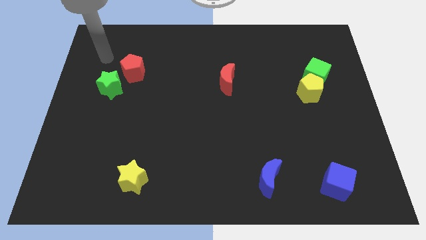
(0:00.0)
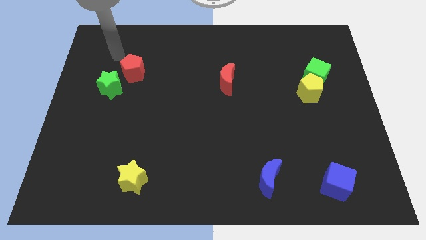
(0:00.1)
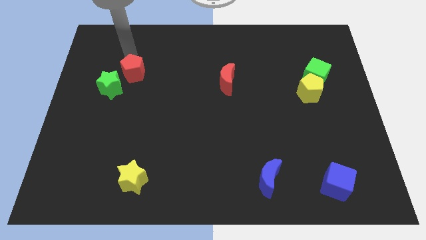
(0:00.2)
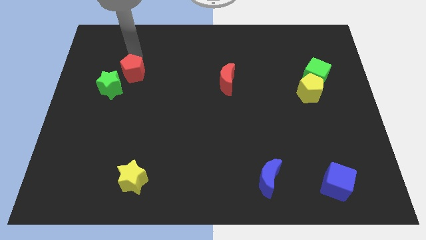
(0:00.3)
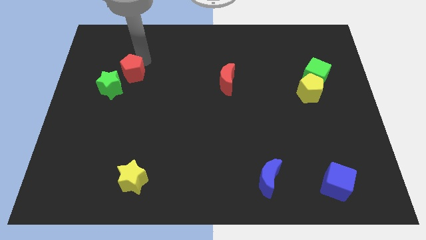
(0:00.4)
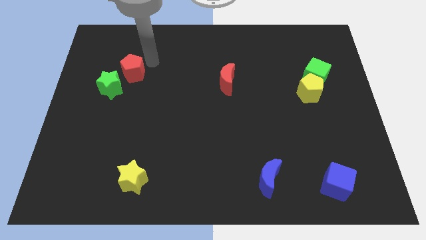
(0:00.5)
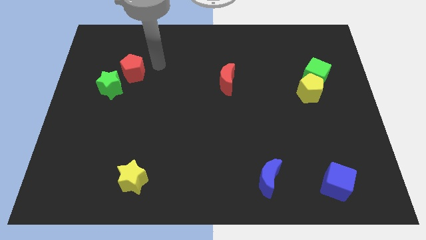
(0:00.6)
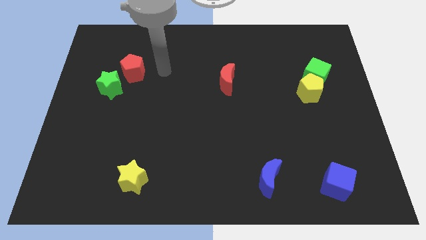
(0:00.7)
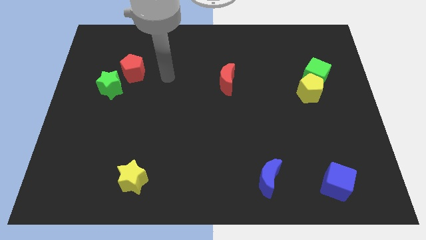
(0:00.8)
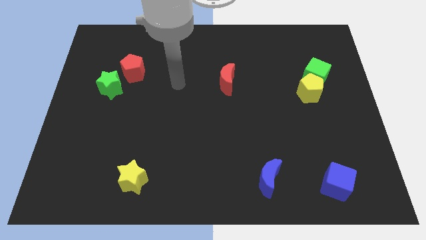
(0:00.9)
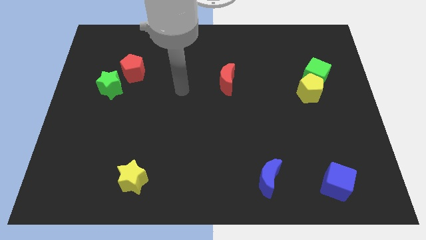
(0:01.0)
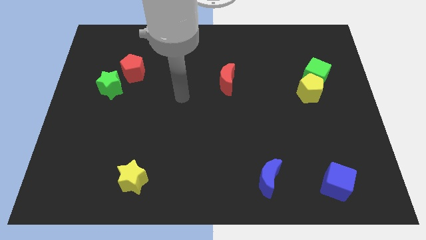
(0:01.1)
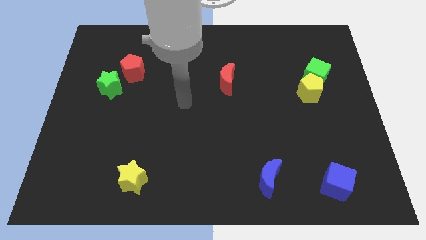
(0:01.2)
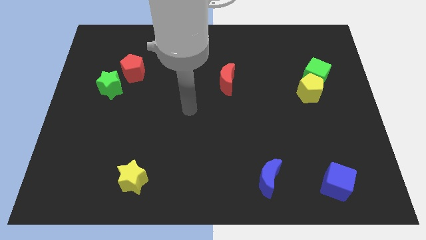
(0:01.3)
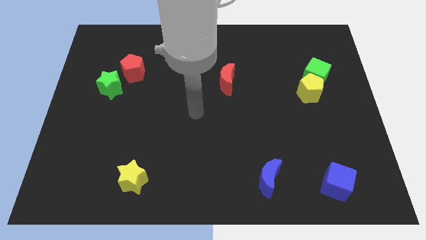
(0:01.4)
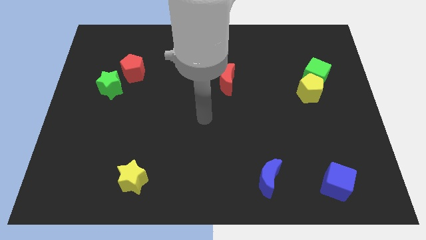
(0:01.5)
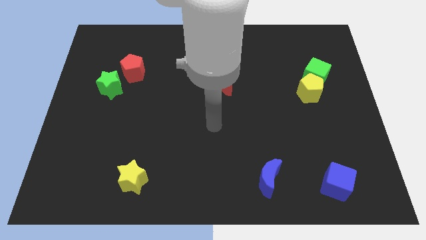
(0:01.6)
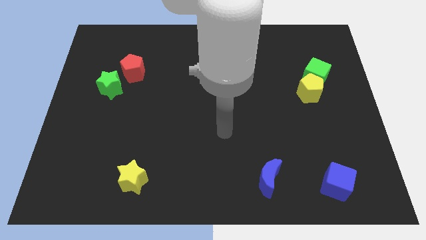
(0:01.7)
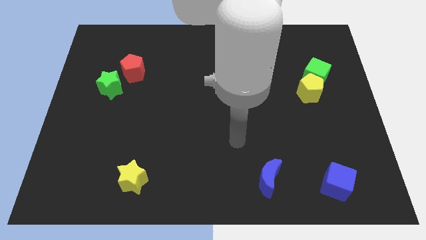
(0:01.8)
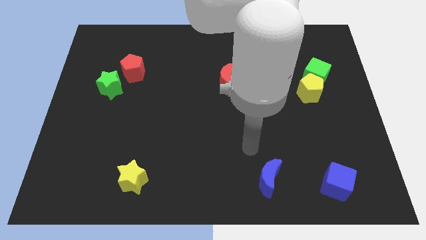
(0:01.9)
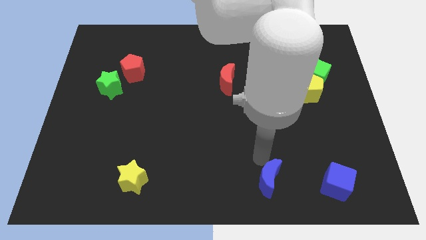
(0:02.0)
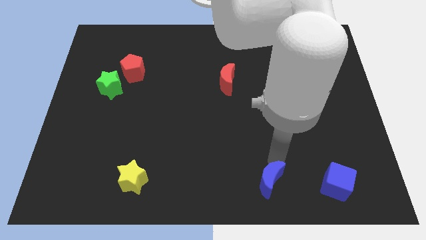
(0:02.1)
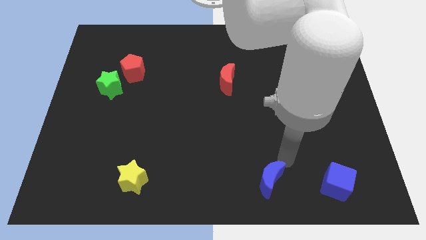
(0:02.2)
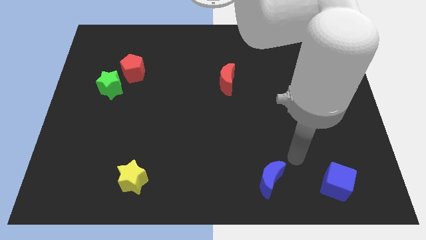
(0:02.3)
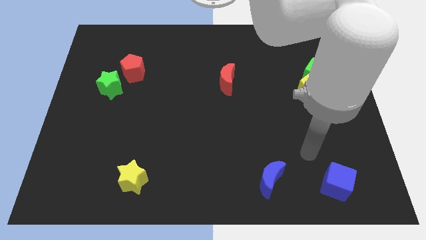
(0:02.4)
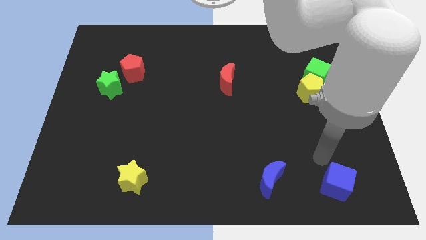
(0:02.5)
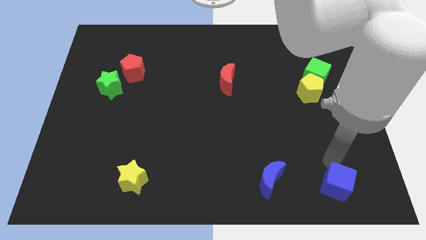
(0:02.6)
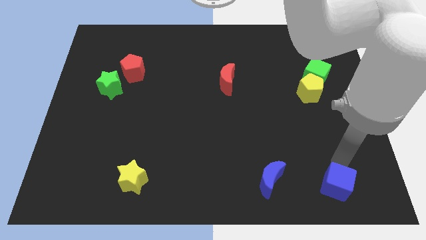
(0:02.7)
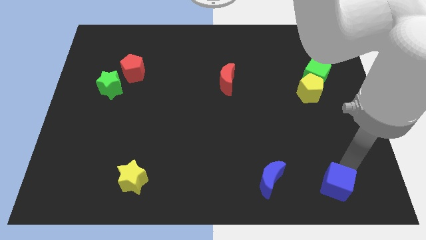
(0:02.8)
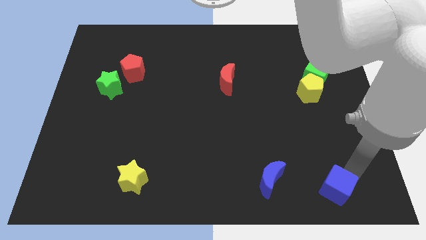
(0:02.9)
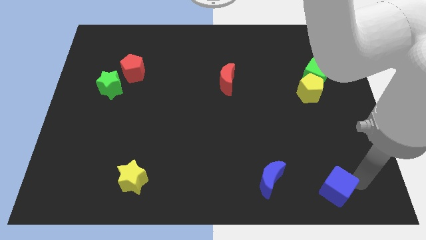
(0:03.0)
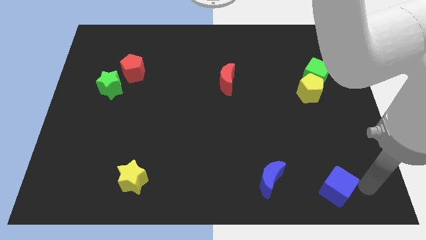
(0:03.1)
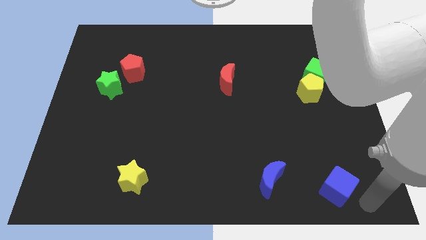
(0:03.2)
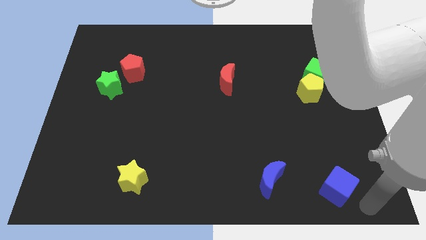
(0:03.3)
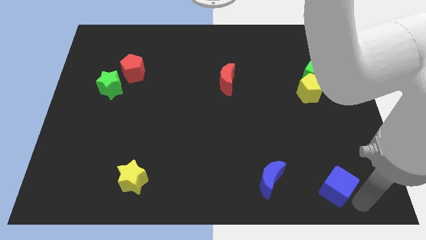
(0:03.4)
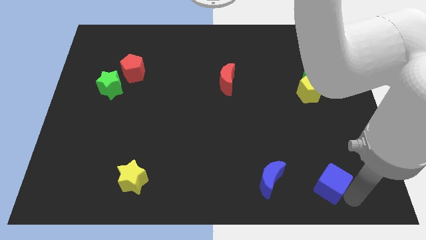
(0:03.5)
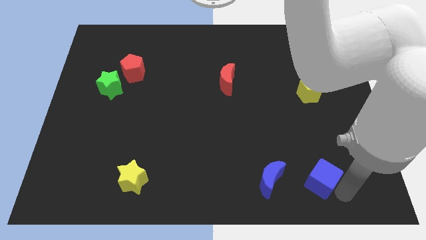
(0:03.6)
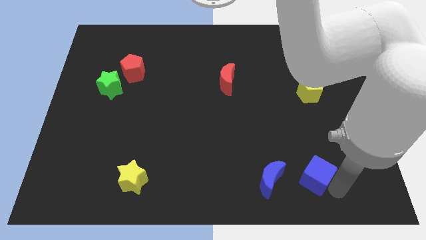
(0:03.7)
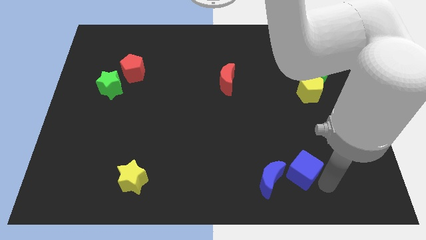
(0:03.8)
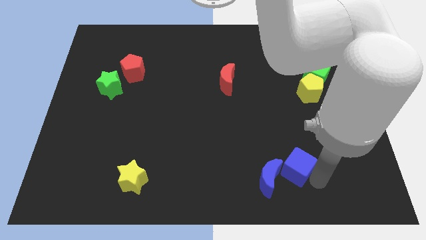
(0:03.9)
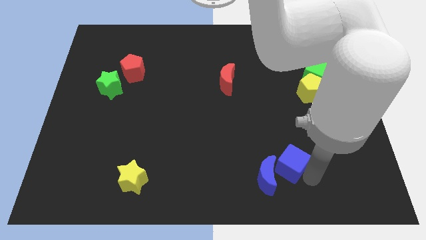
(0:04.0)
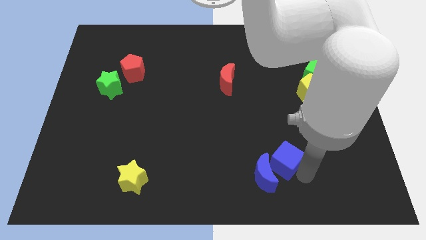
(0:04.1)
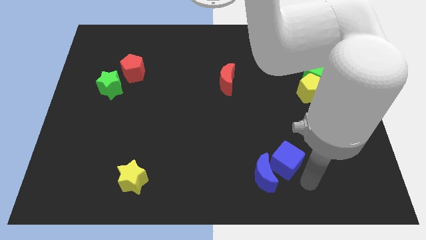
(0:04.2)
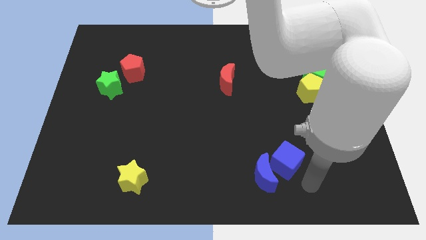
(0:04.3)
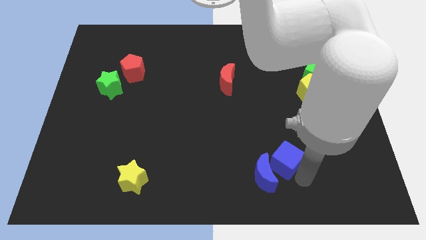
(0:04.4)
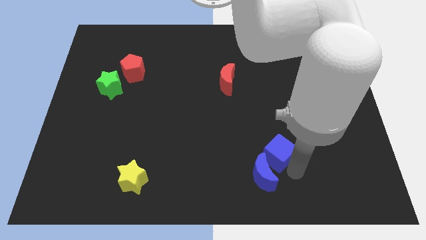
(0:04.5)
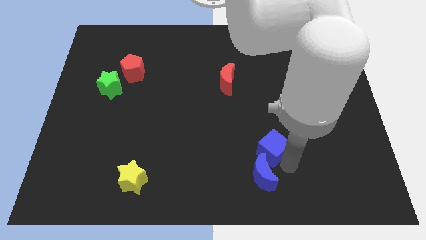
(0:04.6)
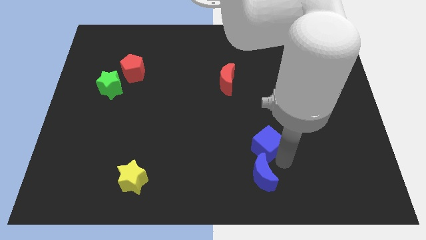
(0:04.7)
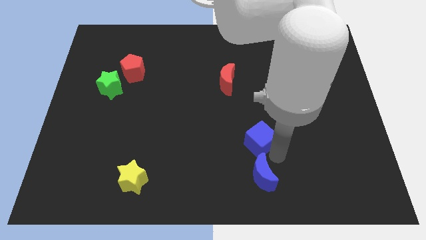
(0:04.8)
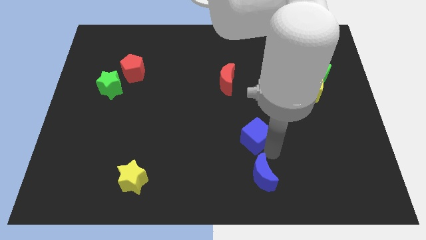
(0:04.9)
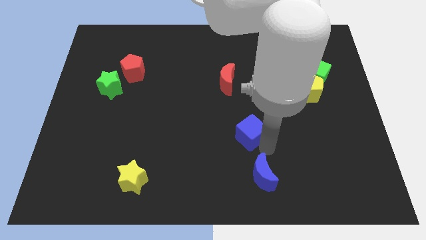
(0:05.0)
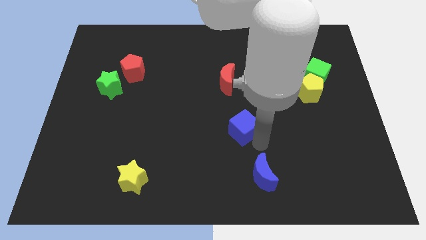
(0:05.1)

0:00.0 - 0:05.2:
put the blue cube to the center

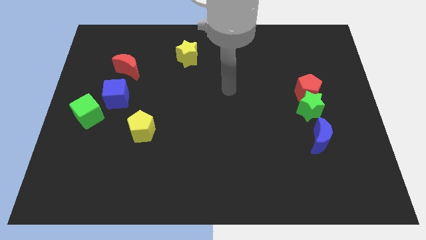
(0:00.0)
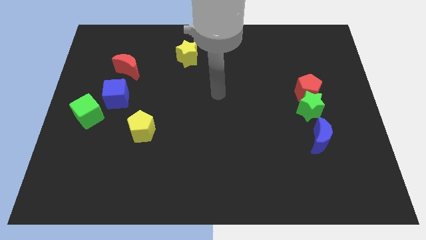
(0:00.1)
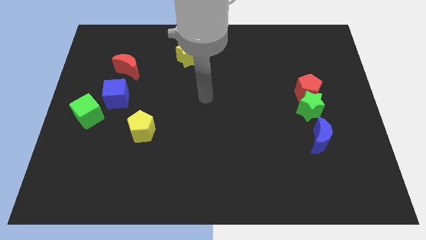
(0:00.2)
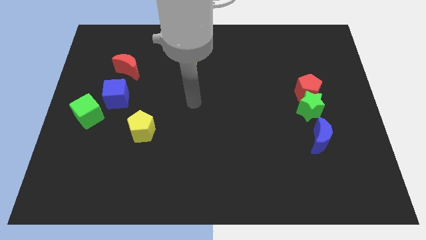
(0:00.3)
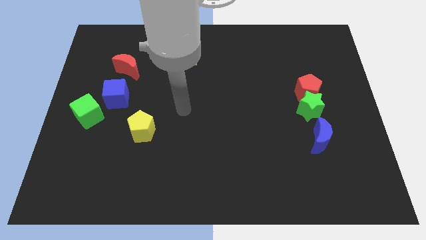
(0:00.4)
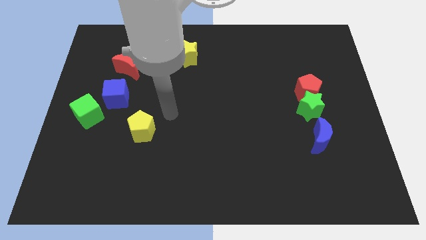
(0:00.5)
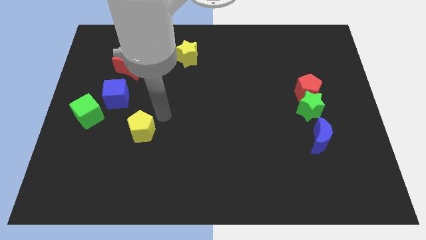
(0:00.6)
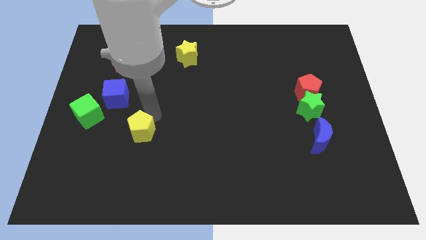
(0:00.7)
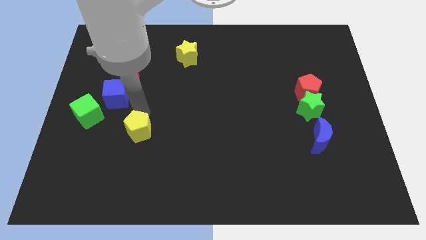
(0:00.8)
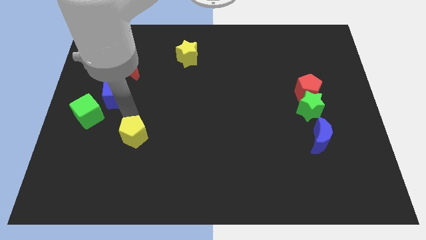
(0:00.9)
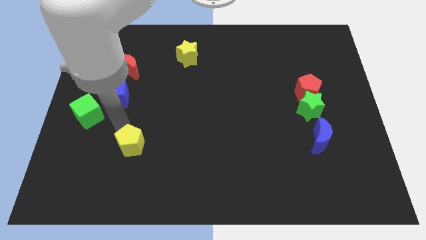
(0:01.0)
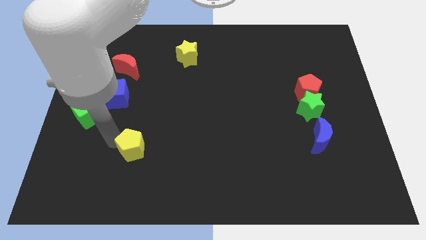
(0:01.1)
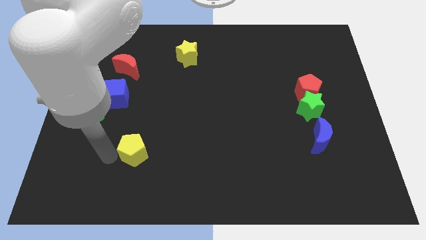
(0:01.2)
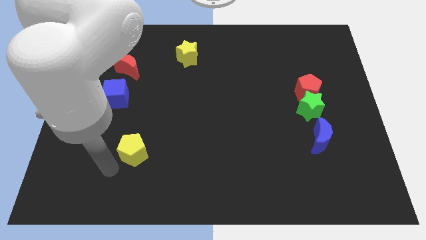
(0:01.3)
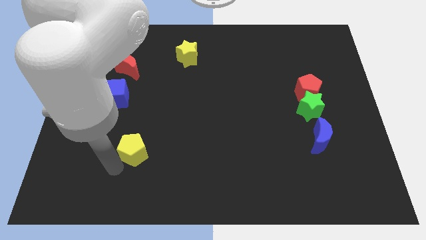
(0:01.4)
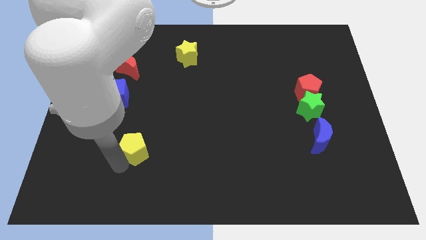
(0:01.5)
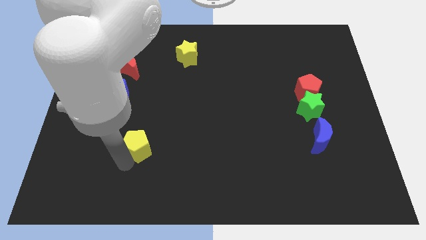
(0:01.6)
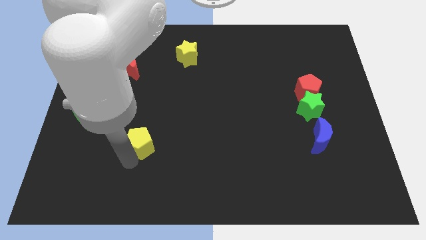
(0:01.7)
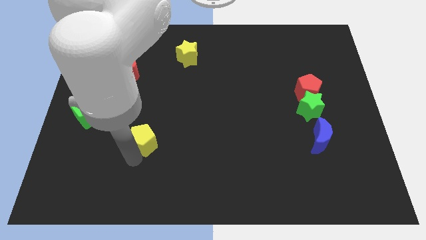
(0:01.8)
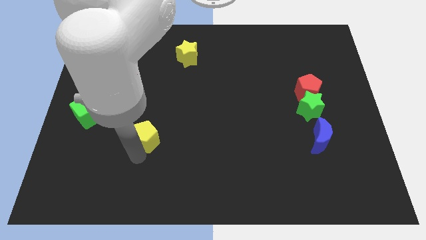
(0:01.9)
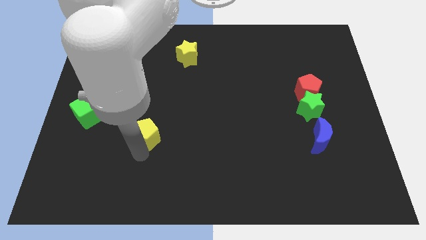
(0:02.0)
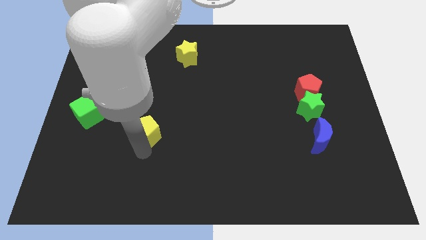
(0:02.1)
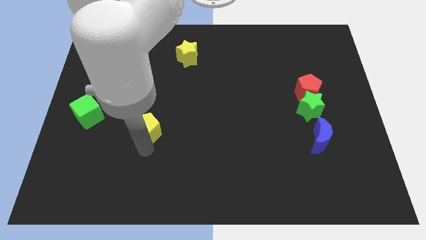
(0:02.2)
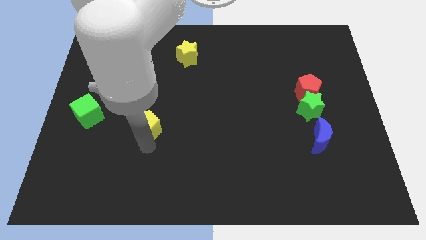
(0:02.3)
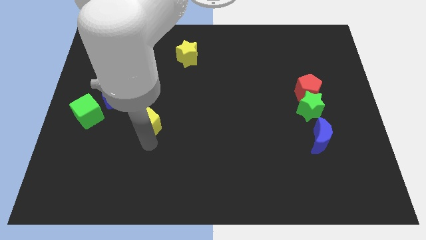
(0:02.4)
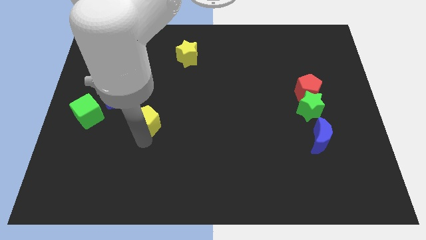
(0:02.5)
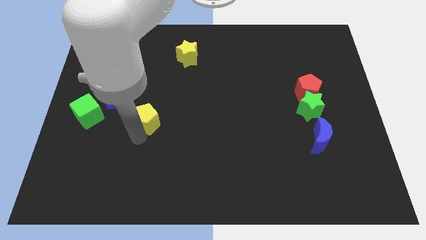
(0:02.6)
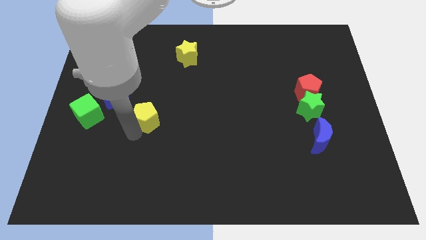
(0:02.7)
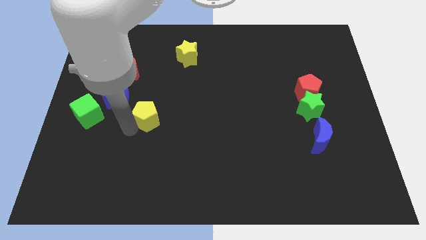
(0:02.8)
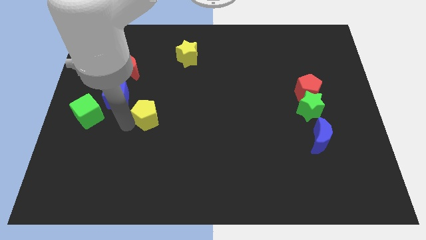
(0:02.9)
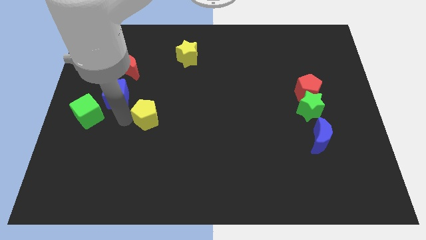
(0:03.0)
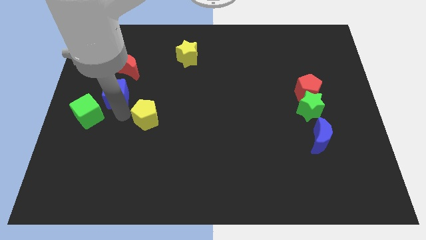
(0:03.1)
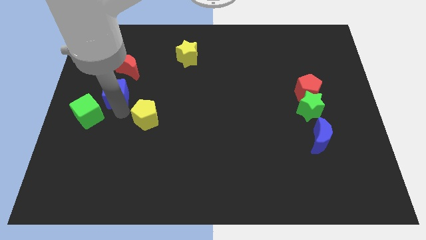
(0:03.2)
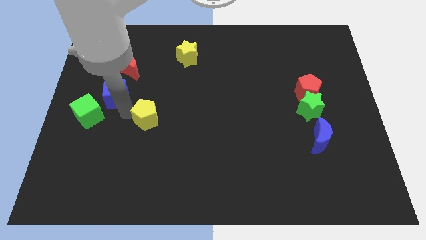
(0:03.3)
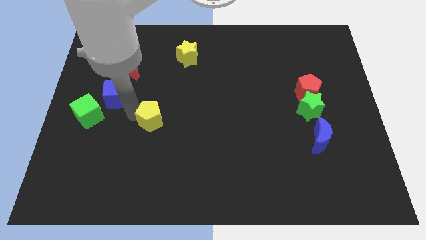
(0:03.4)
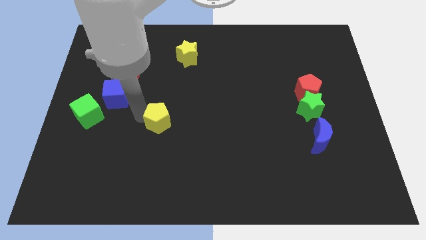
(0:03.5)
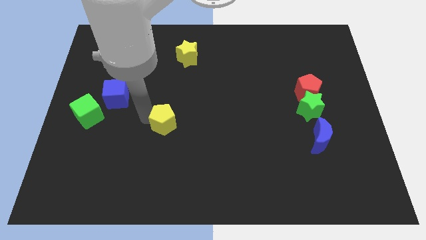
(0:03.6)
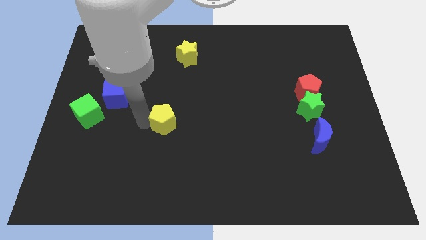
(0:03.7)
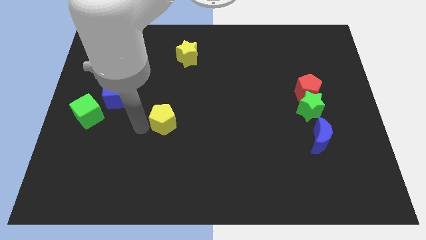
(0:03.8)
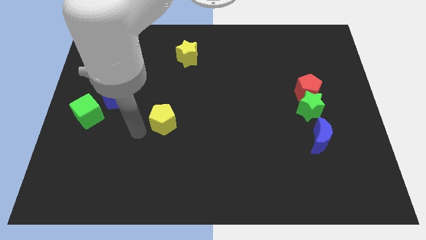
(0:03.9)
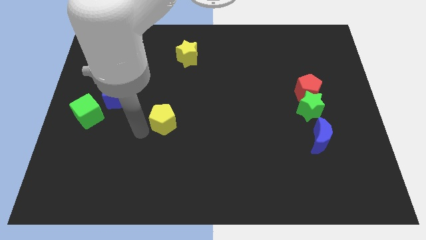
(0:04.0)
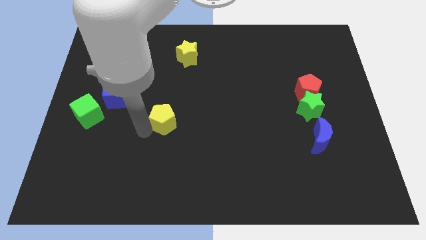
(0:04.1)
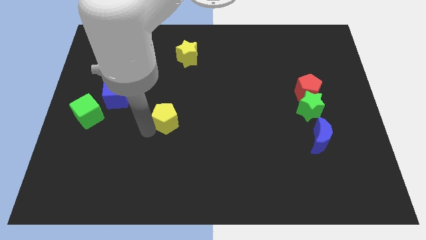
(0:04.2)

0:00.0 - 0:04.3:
move the yellow pentagon to the middle of the board
